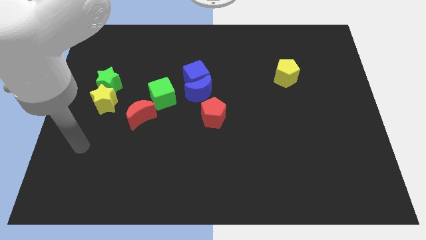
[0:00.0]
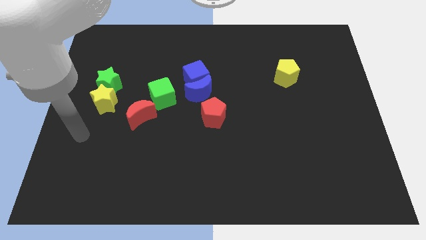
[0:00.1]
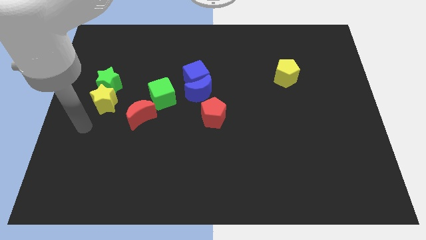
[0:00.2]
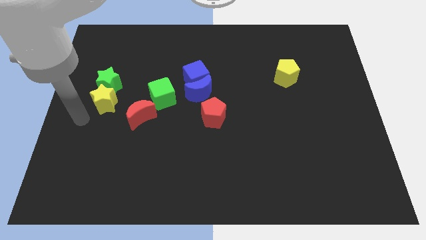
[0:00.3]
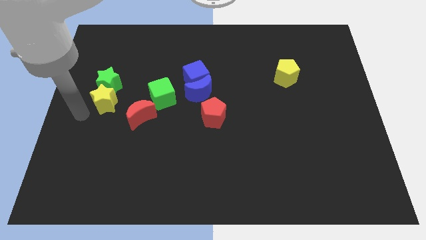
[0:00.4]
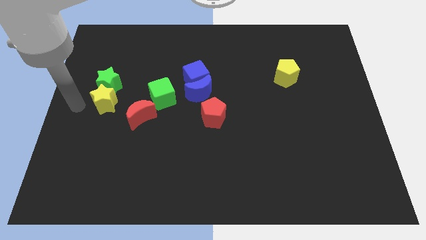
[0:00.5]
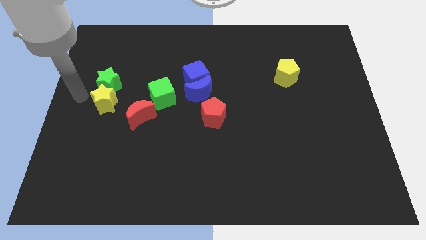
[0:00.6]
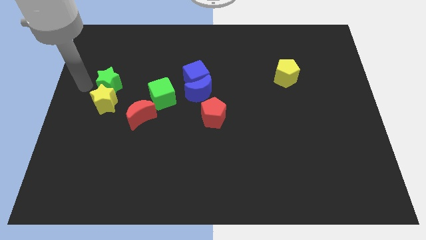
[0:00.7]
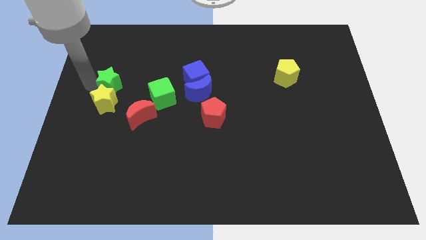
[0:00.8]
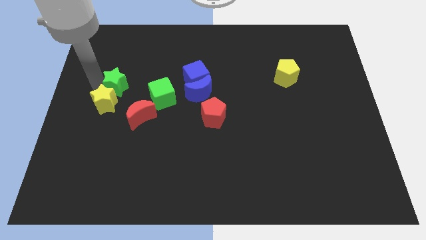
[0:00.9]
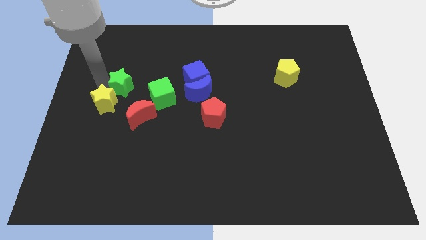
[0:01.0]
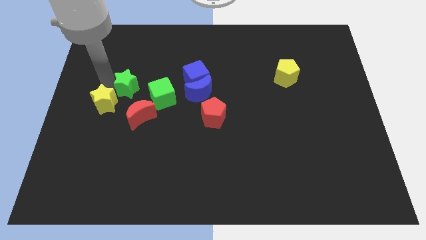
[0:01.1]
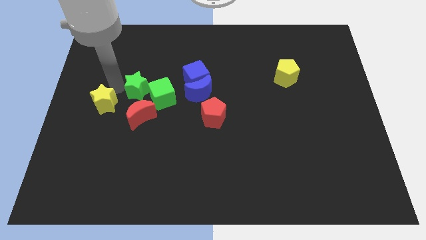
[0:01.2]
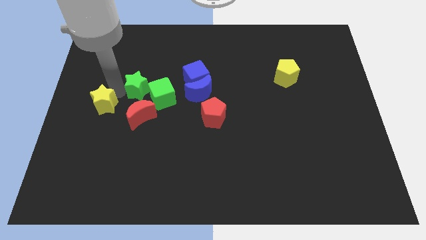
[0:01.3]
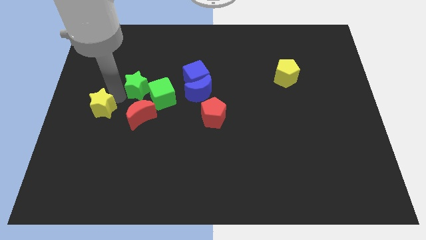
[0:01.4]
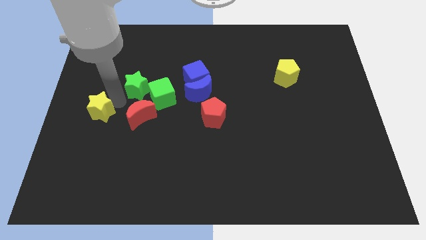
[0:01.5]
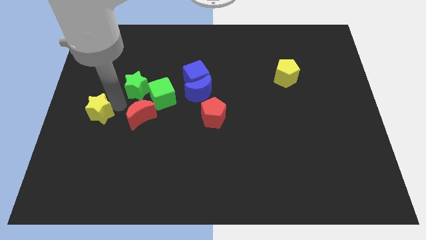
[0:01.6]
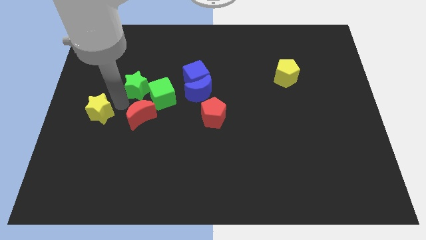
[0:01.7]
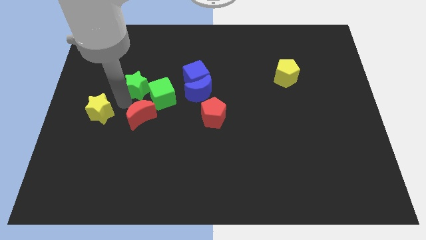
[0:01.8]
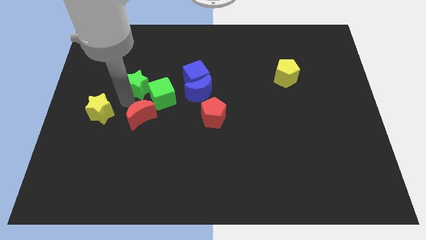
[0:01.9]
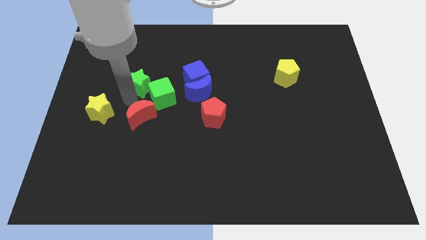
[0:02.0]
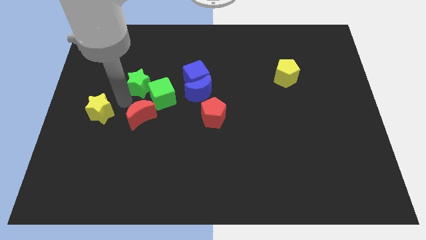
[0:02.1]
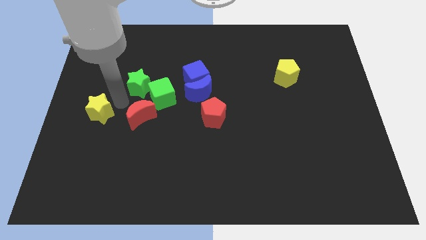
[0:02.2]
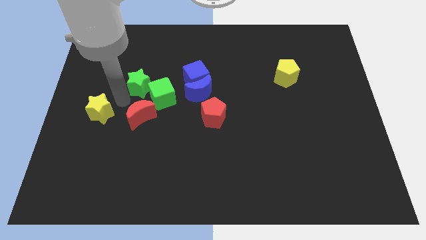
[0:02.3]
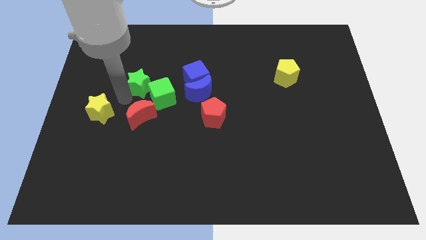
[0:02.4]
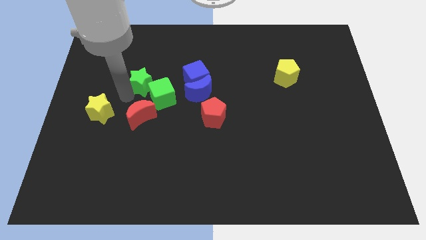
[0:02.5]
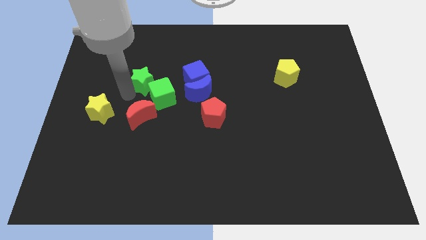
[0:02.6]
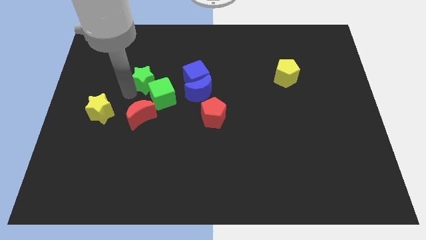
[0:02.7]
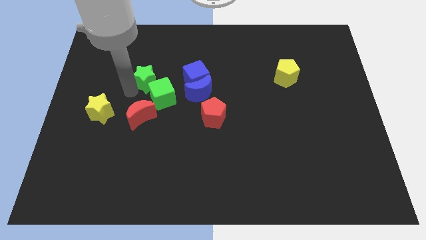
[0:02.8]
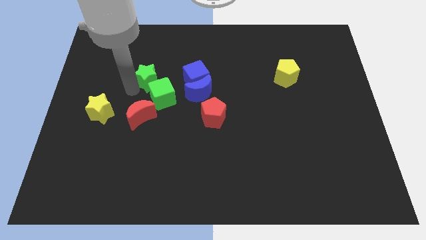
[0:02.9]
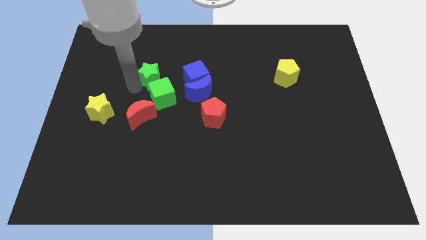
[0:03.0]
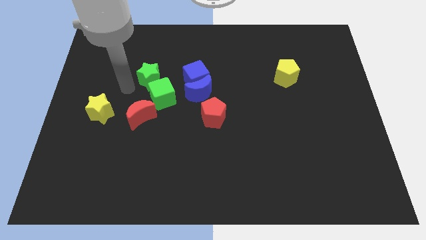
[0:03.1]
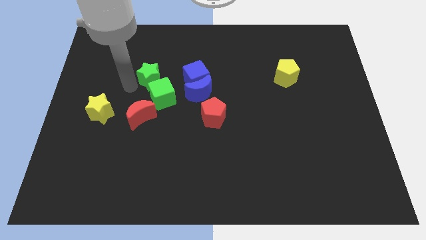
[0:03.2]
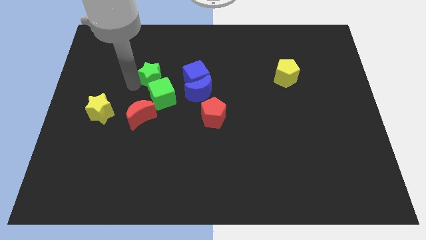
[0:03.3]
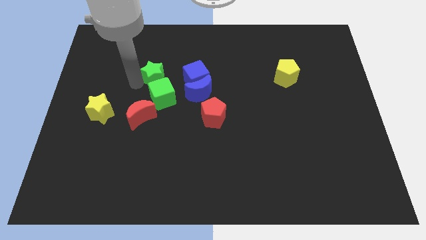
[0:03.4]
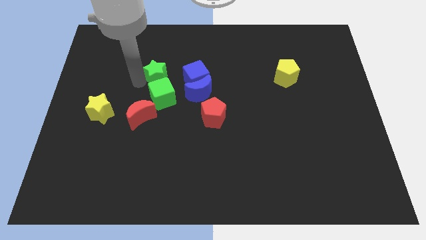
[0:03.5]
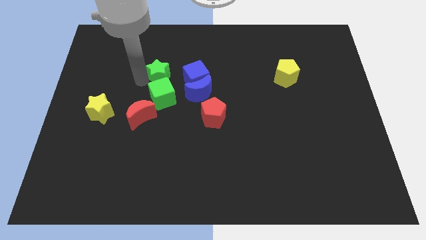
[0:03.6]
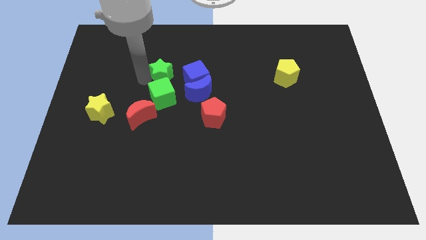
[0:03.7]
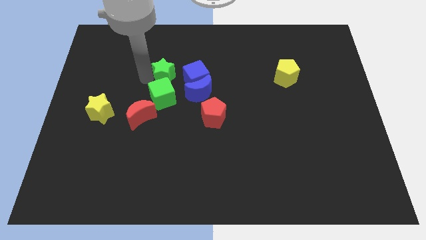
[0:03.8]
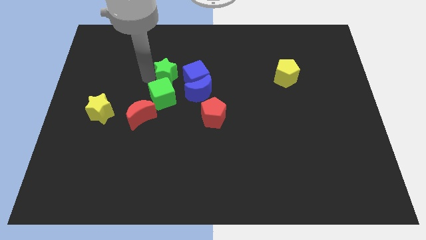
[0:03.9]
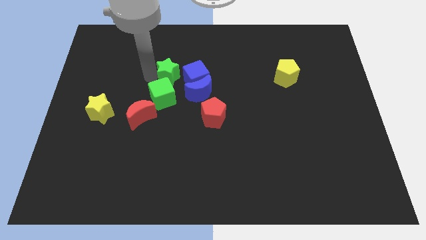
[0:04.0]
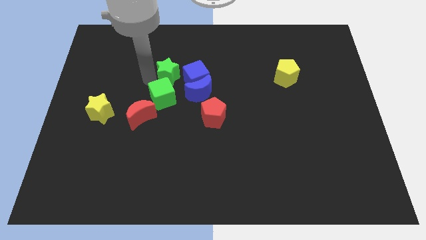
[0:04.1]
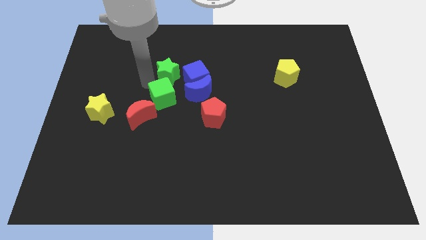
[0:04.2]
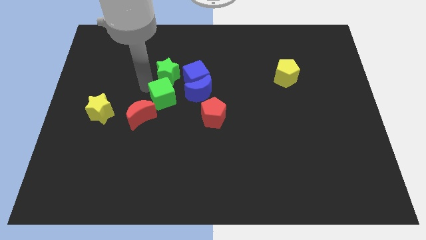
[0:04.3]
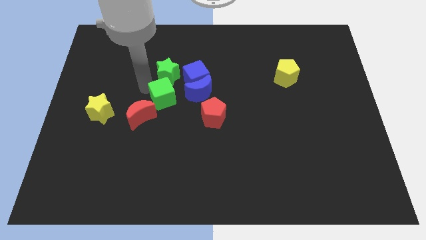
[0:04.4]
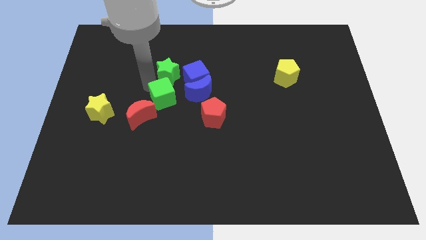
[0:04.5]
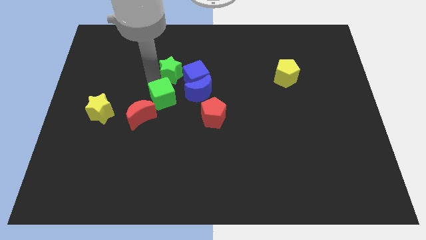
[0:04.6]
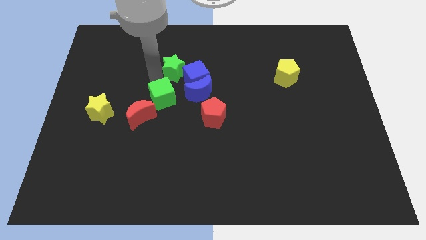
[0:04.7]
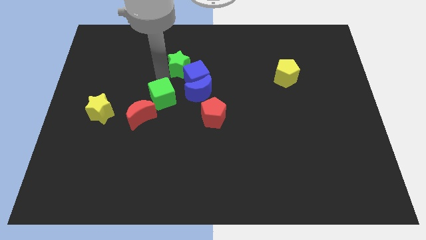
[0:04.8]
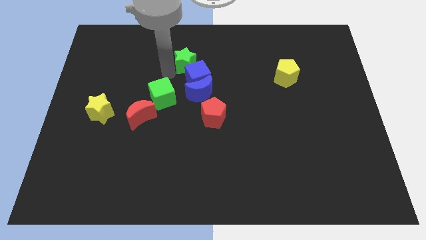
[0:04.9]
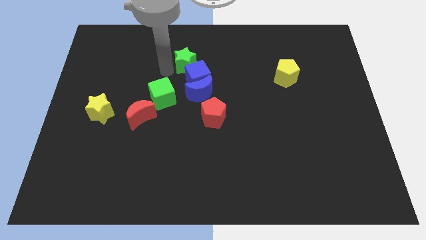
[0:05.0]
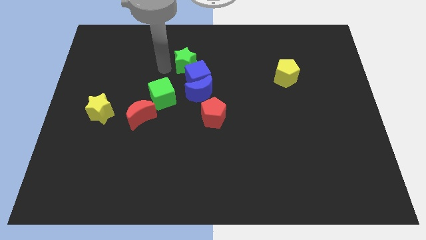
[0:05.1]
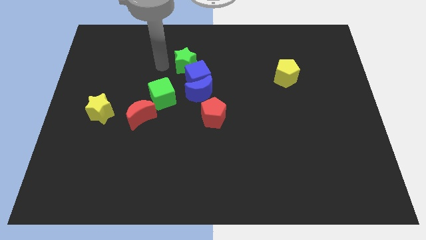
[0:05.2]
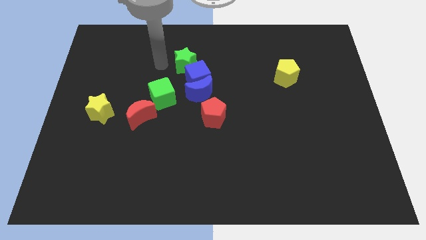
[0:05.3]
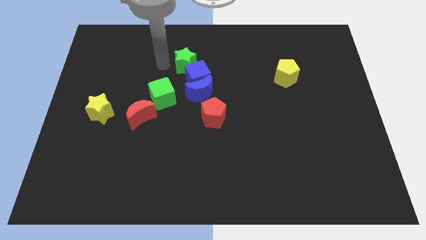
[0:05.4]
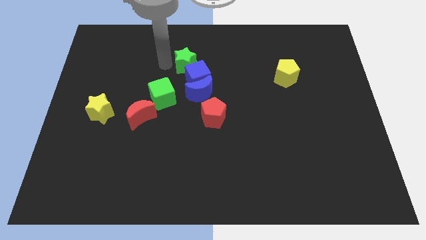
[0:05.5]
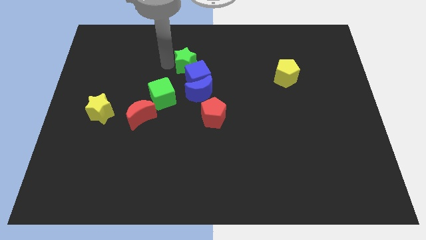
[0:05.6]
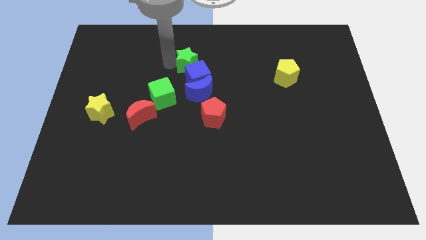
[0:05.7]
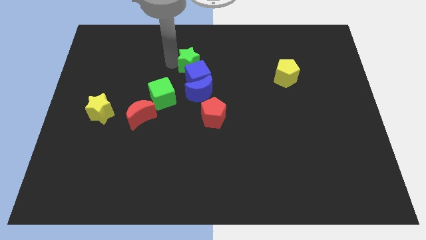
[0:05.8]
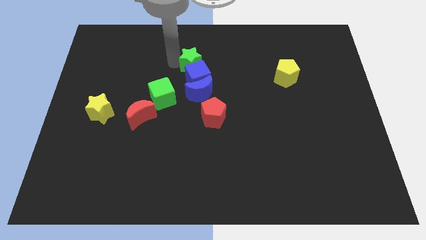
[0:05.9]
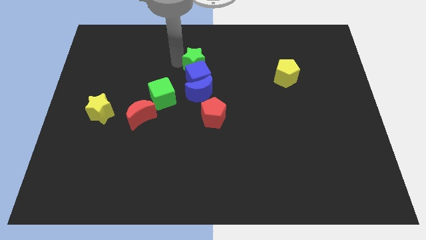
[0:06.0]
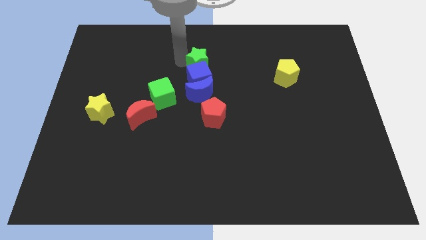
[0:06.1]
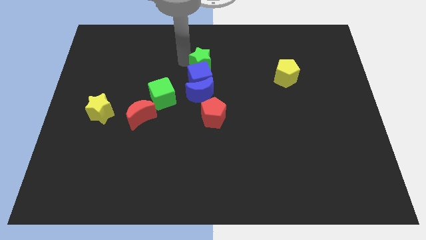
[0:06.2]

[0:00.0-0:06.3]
push the green star right

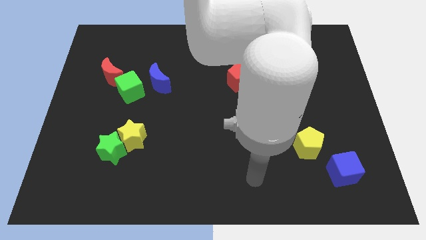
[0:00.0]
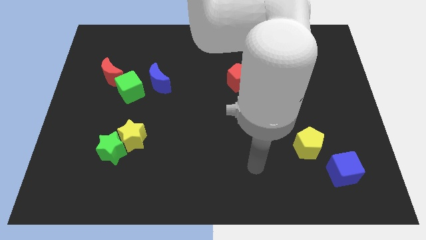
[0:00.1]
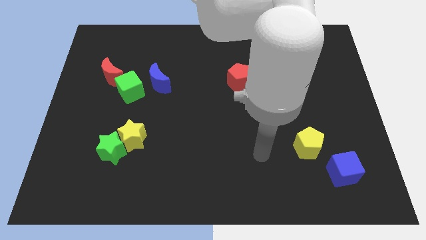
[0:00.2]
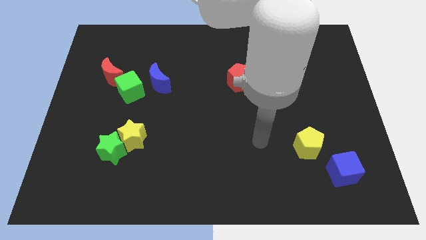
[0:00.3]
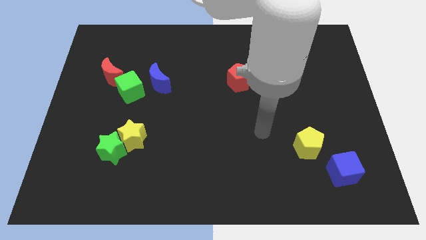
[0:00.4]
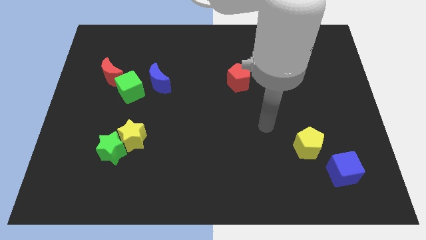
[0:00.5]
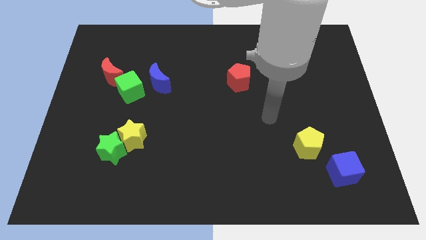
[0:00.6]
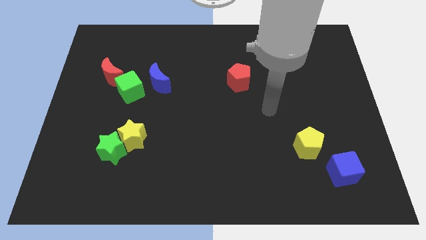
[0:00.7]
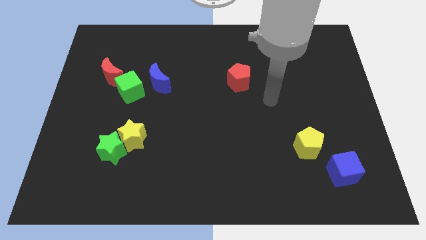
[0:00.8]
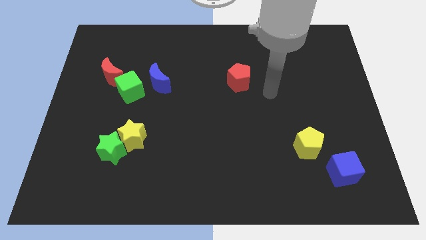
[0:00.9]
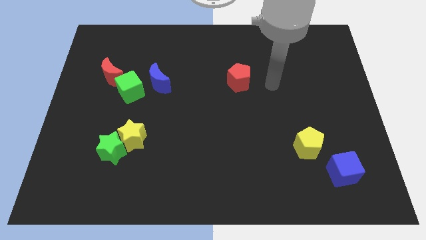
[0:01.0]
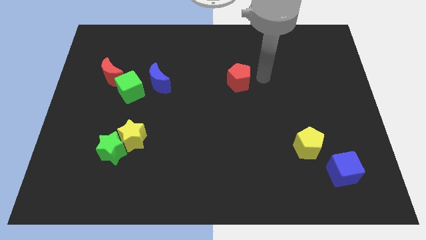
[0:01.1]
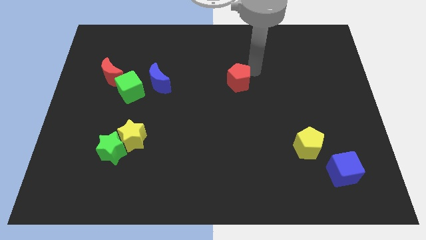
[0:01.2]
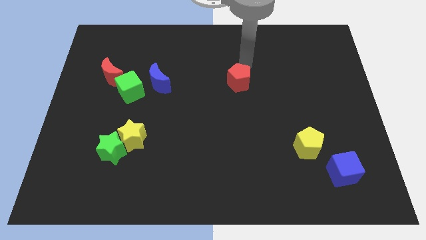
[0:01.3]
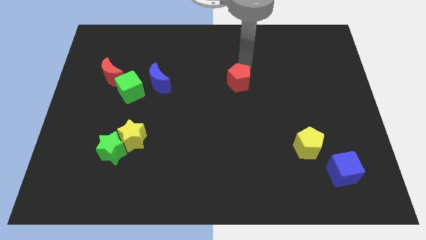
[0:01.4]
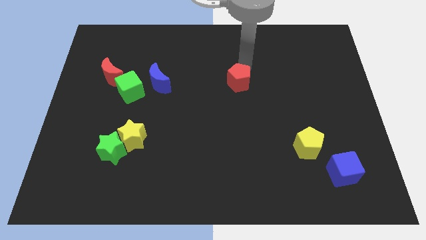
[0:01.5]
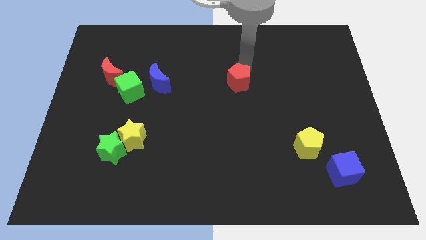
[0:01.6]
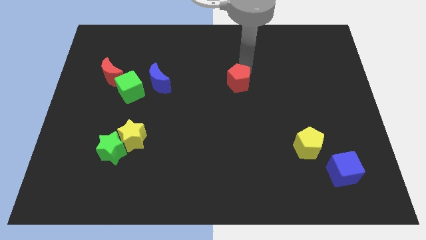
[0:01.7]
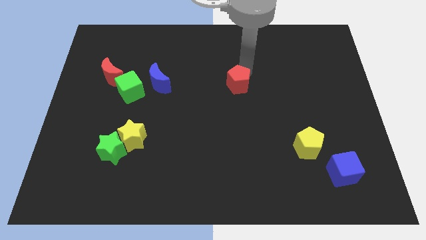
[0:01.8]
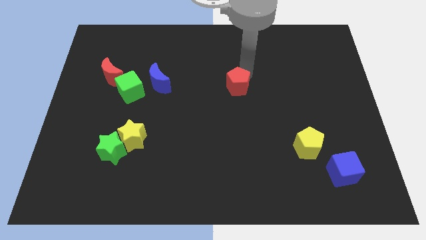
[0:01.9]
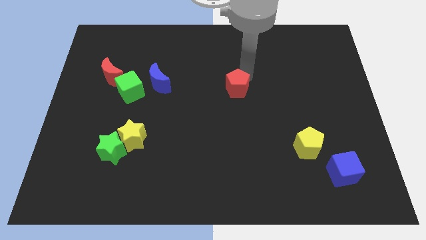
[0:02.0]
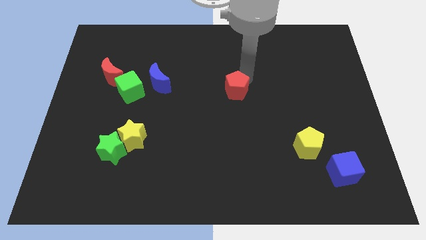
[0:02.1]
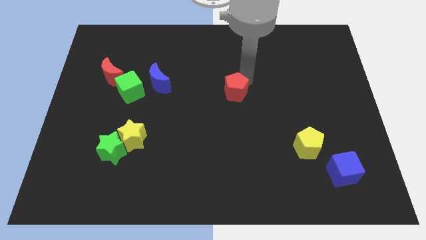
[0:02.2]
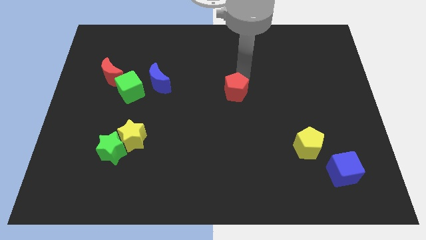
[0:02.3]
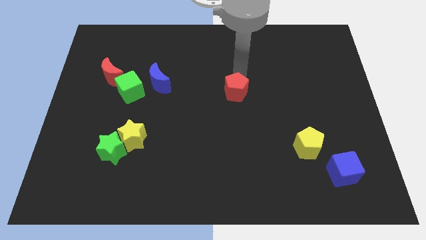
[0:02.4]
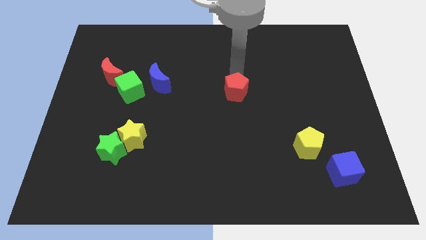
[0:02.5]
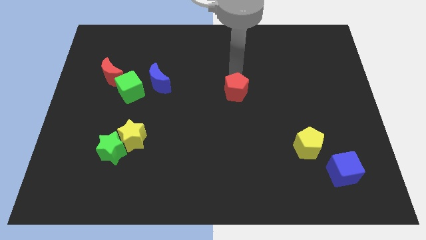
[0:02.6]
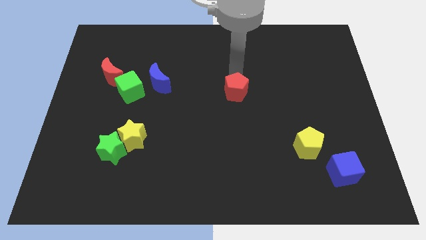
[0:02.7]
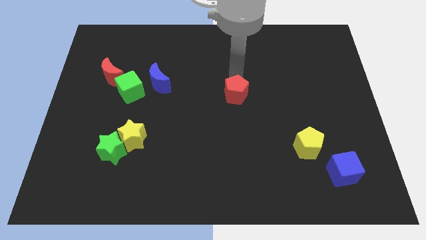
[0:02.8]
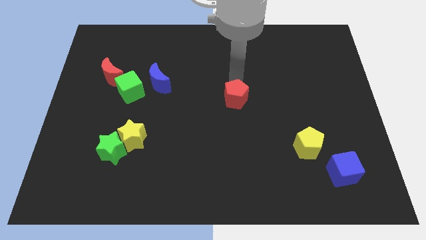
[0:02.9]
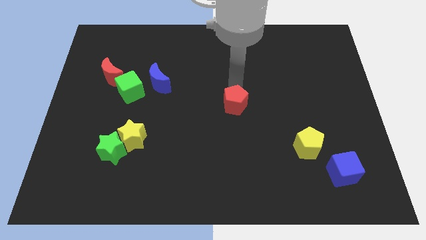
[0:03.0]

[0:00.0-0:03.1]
move the red pentagon down somewhat
